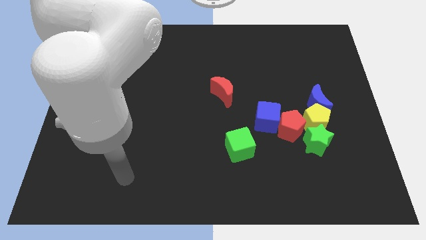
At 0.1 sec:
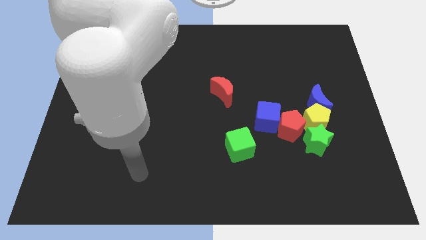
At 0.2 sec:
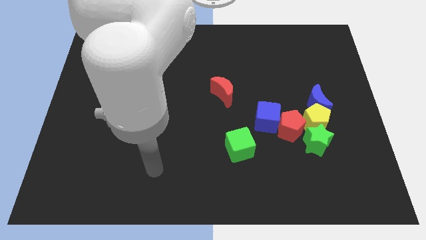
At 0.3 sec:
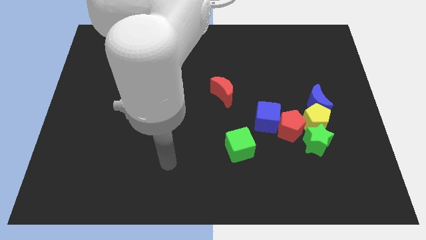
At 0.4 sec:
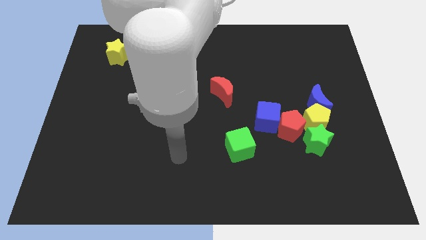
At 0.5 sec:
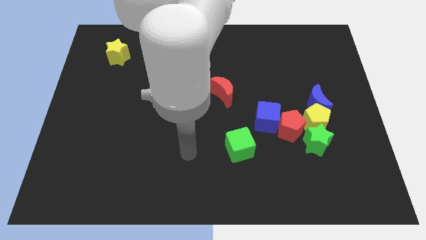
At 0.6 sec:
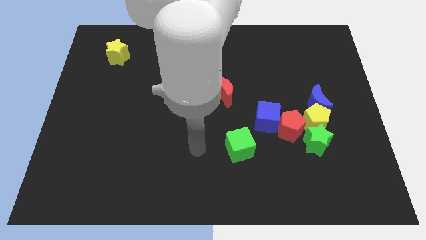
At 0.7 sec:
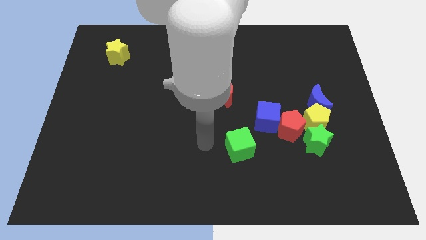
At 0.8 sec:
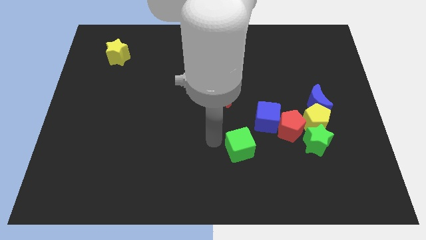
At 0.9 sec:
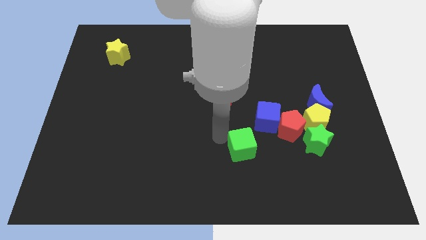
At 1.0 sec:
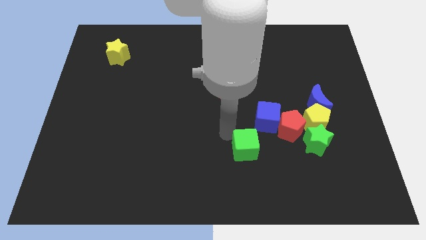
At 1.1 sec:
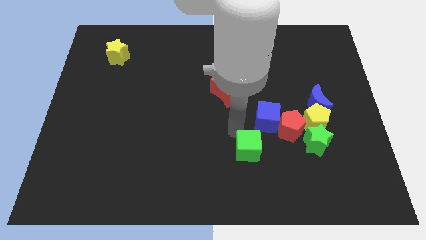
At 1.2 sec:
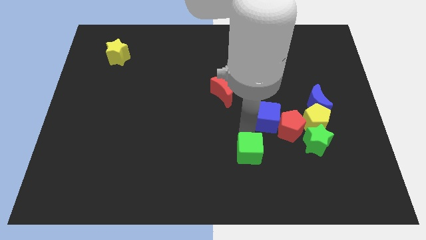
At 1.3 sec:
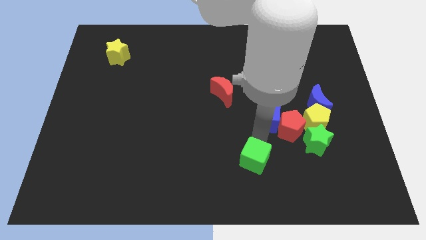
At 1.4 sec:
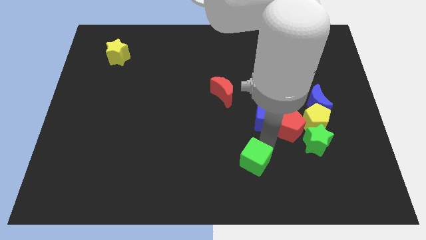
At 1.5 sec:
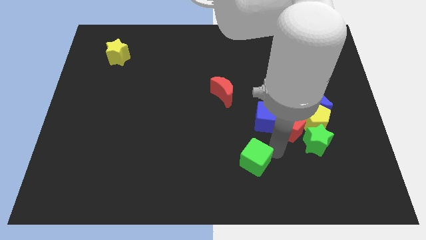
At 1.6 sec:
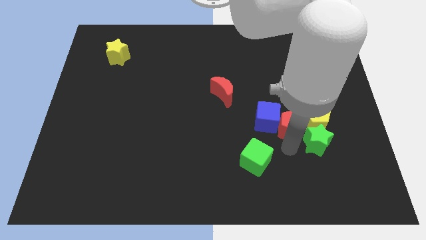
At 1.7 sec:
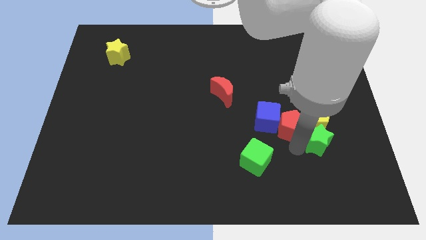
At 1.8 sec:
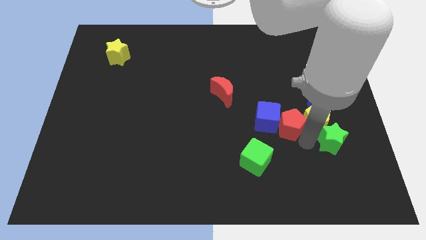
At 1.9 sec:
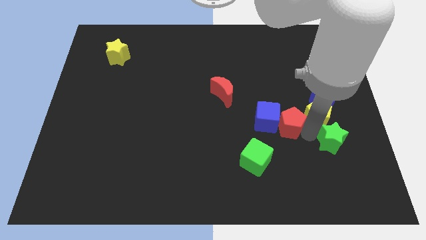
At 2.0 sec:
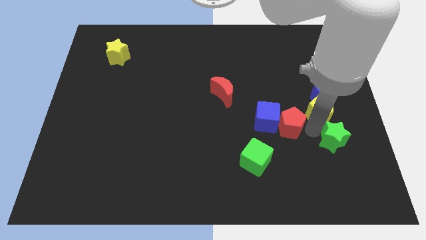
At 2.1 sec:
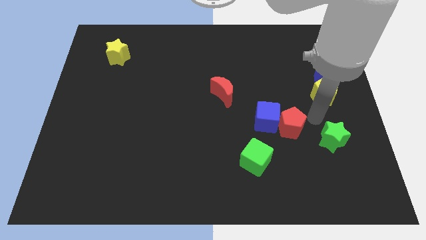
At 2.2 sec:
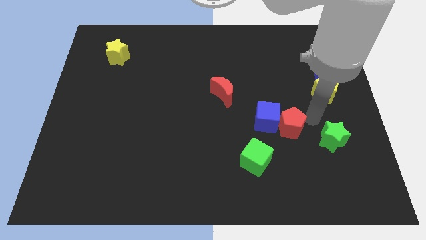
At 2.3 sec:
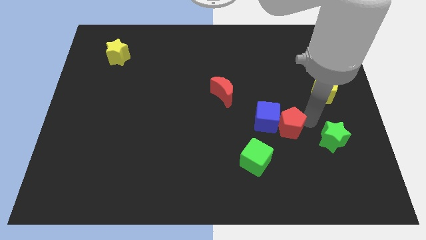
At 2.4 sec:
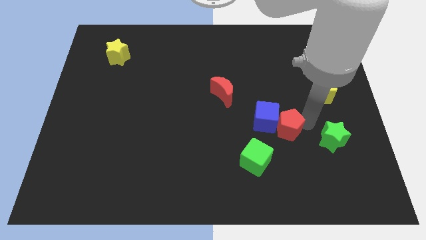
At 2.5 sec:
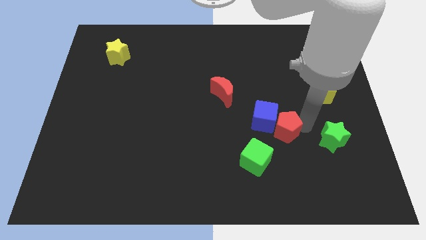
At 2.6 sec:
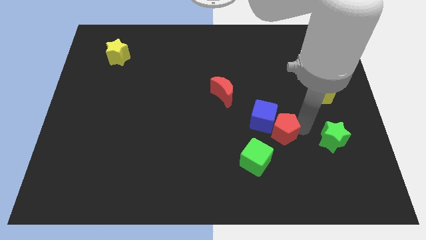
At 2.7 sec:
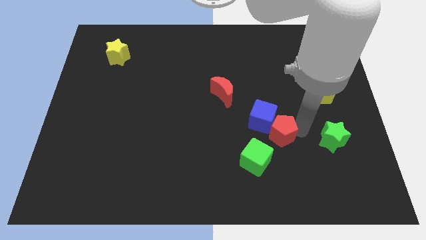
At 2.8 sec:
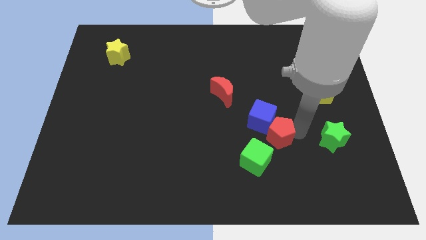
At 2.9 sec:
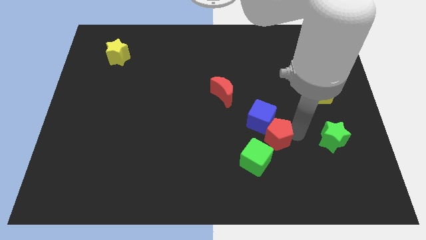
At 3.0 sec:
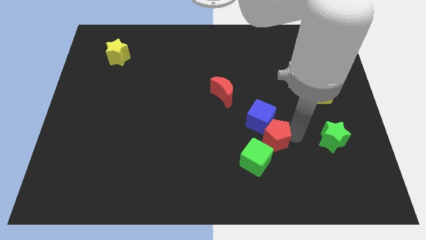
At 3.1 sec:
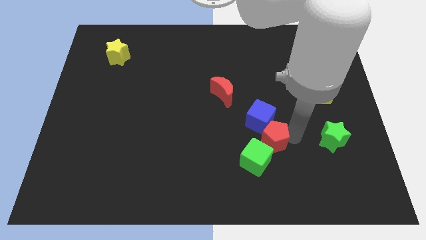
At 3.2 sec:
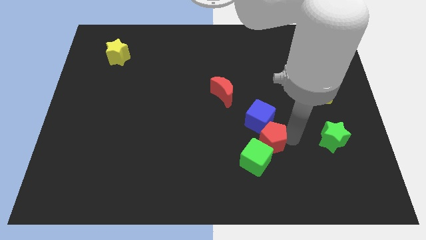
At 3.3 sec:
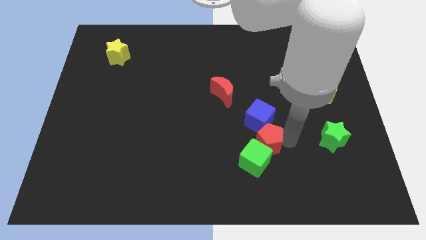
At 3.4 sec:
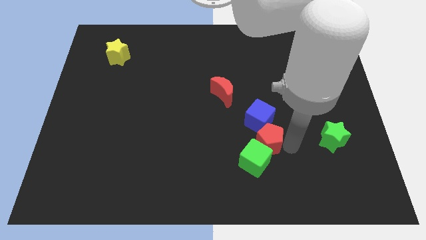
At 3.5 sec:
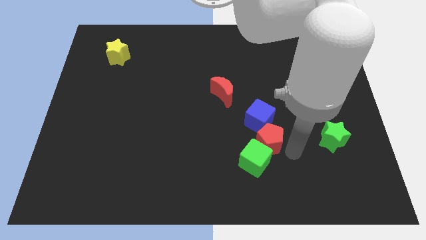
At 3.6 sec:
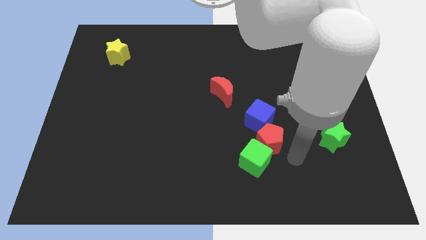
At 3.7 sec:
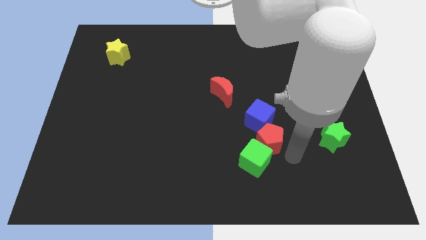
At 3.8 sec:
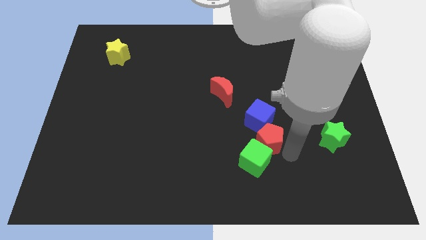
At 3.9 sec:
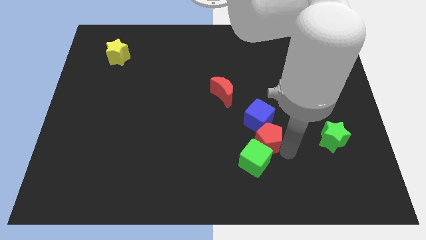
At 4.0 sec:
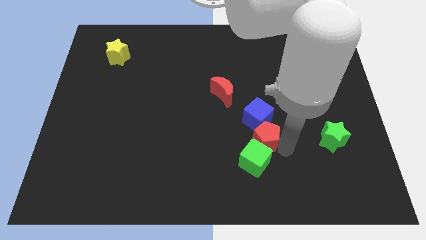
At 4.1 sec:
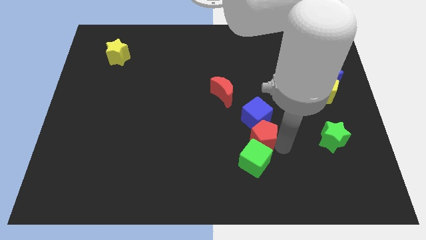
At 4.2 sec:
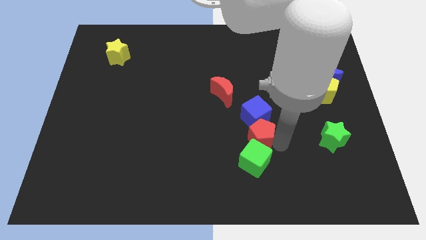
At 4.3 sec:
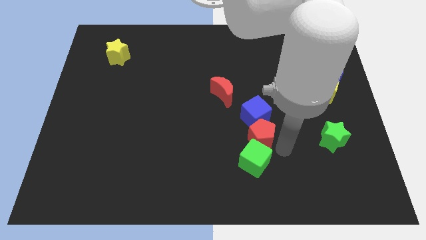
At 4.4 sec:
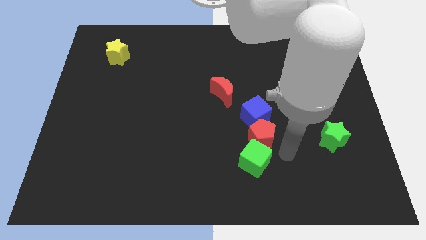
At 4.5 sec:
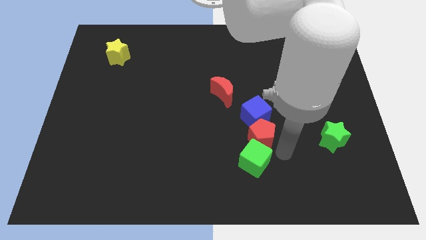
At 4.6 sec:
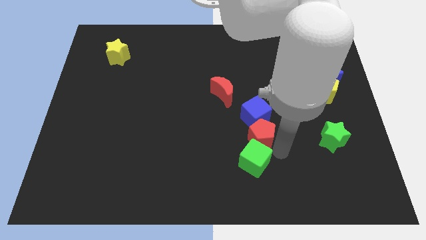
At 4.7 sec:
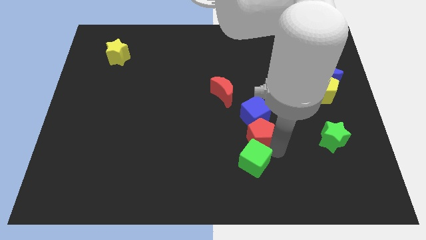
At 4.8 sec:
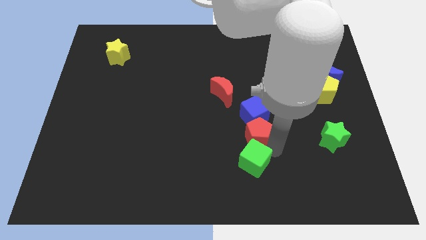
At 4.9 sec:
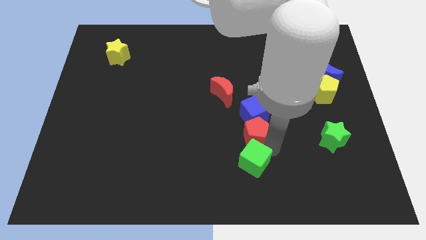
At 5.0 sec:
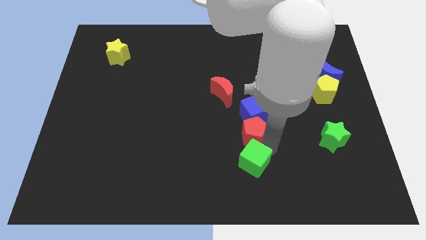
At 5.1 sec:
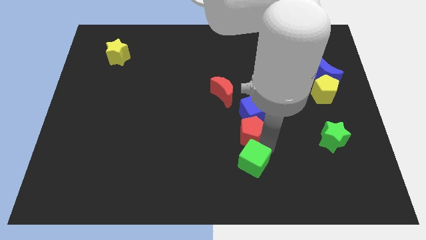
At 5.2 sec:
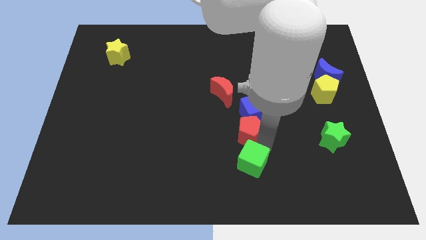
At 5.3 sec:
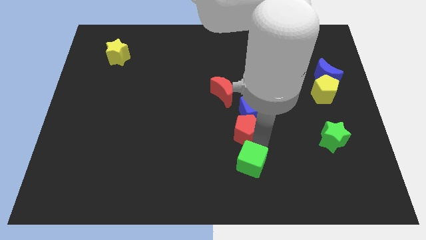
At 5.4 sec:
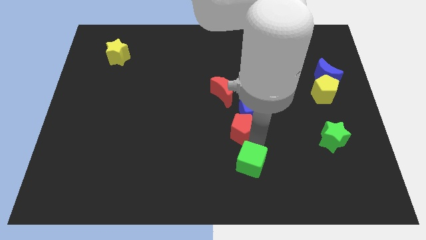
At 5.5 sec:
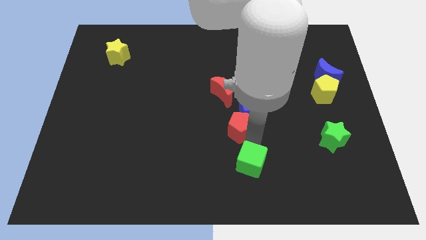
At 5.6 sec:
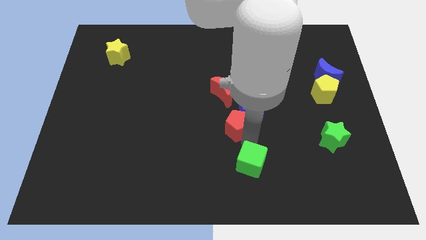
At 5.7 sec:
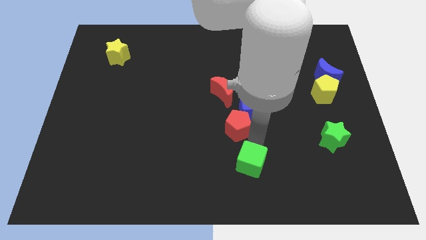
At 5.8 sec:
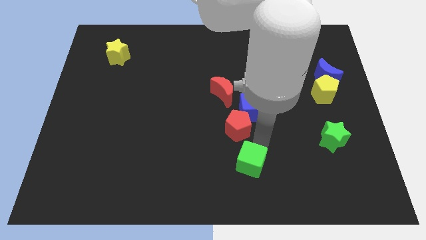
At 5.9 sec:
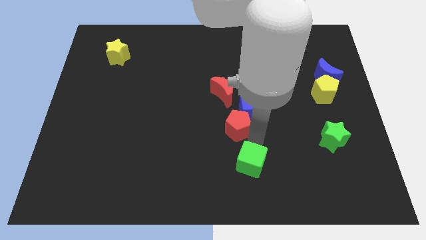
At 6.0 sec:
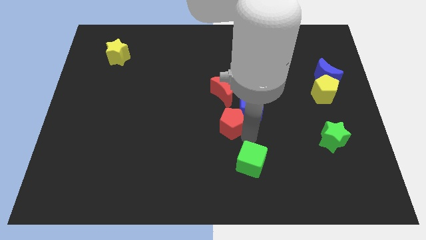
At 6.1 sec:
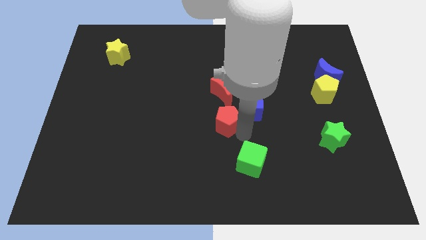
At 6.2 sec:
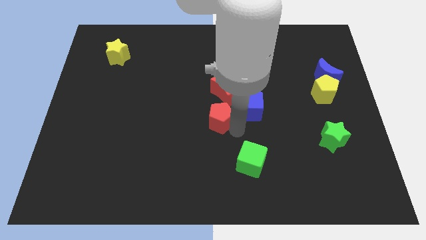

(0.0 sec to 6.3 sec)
move the red pentagon to the bottom left of the red moon

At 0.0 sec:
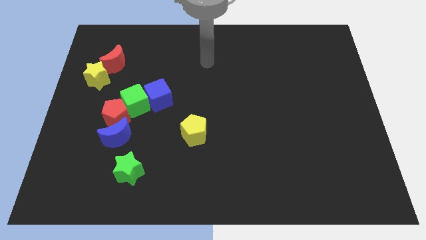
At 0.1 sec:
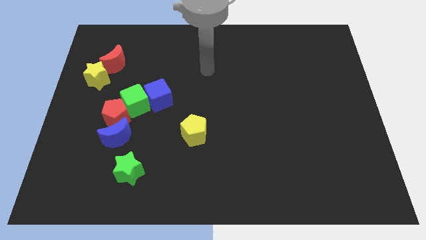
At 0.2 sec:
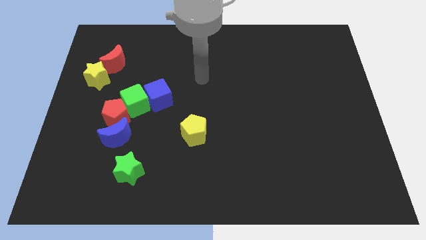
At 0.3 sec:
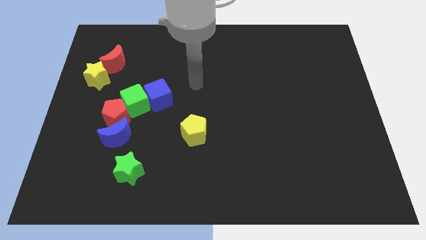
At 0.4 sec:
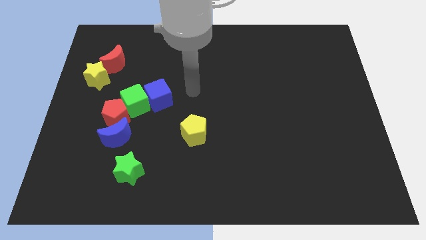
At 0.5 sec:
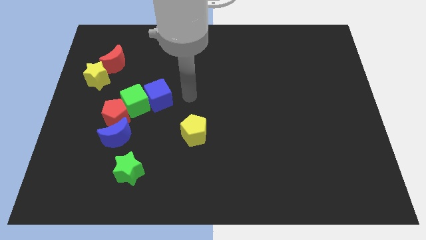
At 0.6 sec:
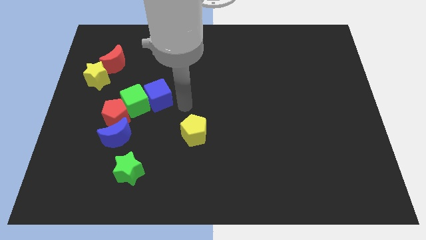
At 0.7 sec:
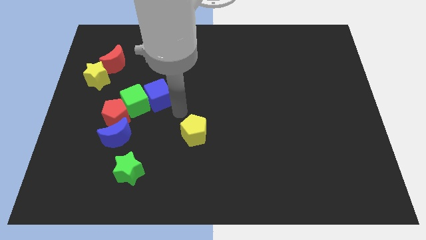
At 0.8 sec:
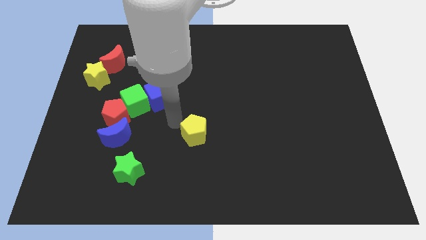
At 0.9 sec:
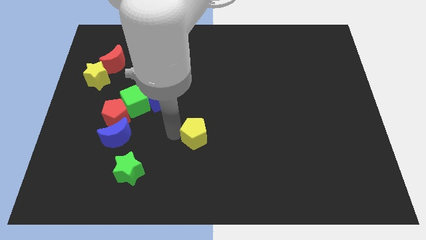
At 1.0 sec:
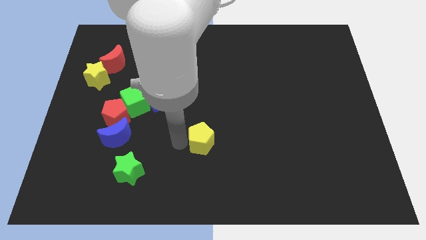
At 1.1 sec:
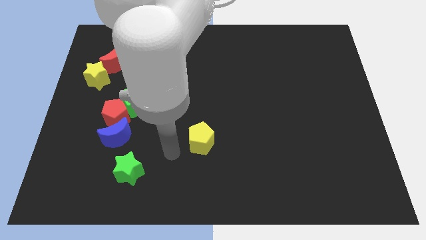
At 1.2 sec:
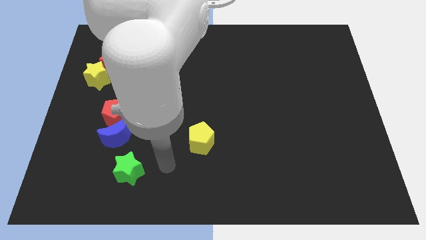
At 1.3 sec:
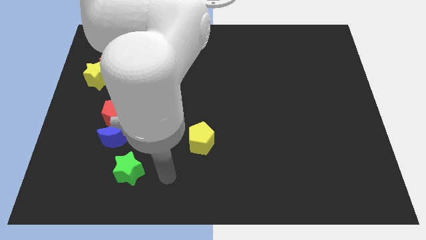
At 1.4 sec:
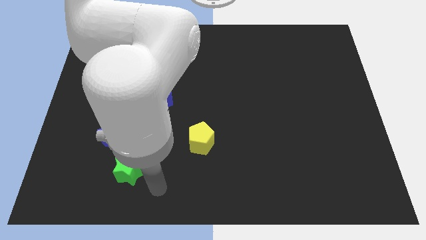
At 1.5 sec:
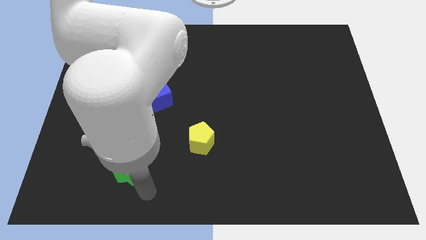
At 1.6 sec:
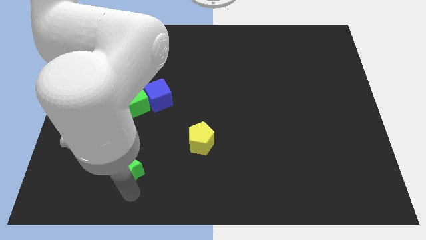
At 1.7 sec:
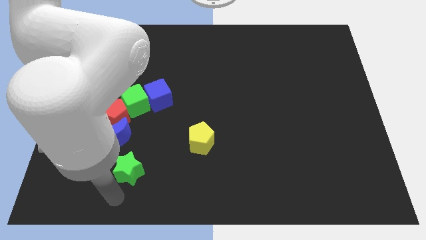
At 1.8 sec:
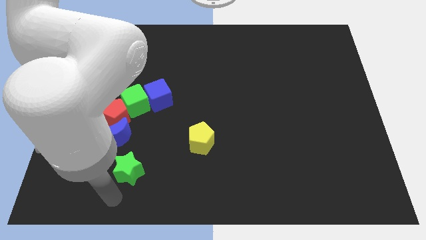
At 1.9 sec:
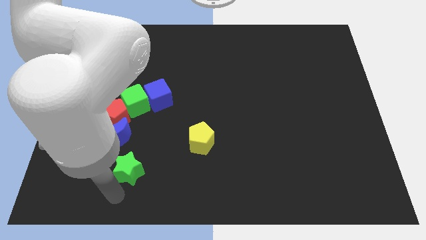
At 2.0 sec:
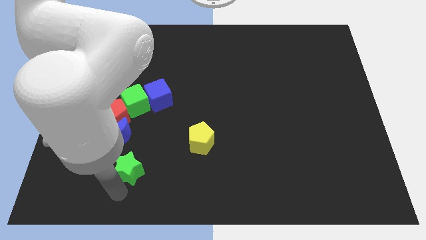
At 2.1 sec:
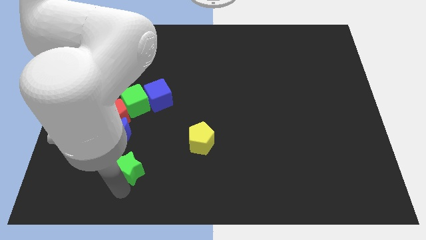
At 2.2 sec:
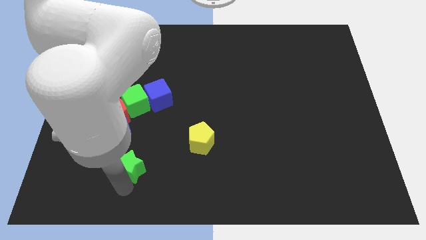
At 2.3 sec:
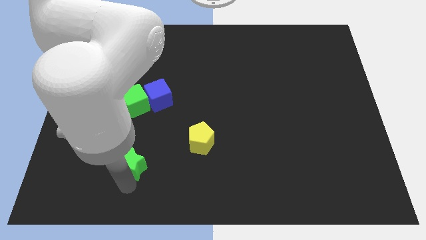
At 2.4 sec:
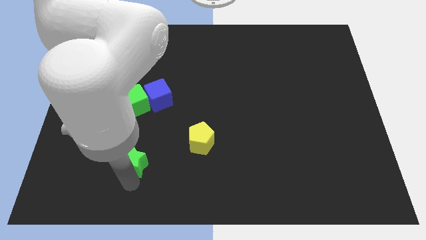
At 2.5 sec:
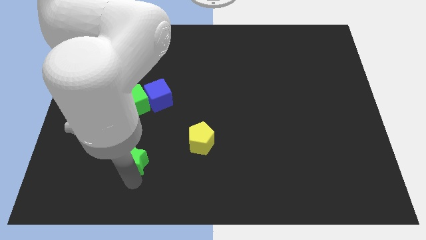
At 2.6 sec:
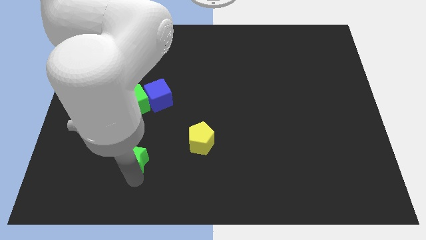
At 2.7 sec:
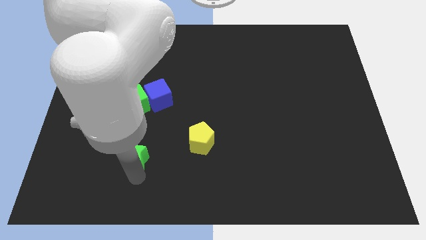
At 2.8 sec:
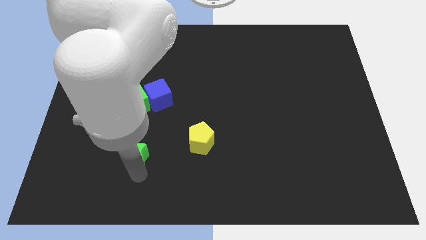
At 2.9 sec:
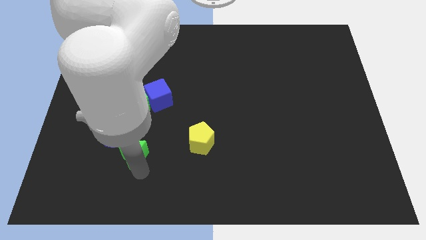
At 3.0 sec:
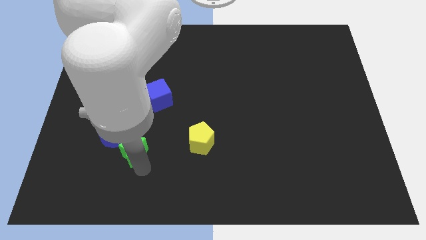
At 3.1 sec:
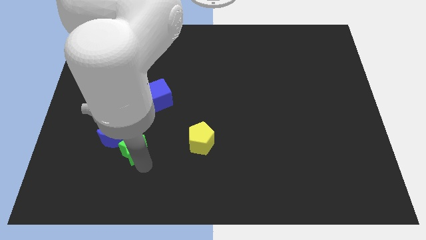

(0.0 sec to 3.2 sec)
push the green star to the bottom of the blue cube
